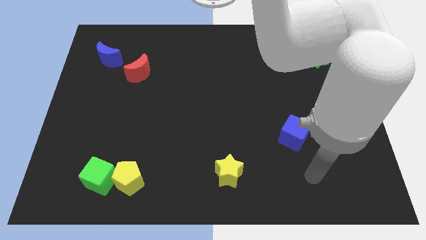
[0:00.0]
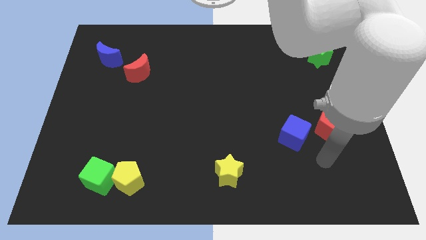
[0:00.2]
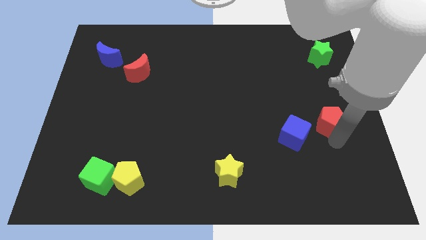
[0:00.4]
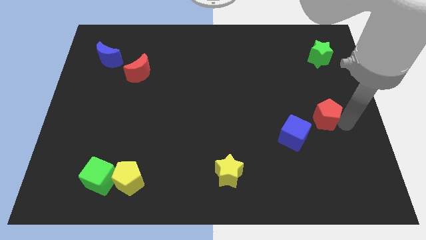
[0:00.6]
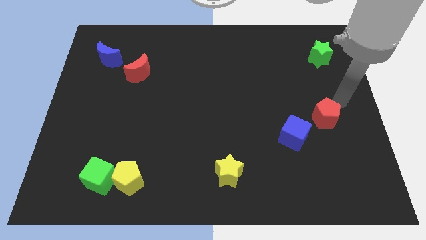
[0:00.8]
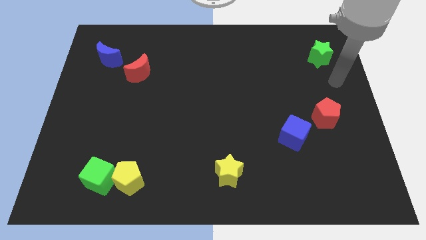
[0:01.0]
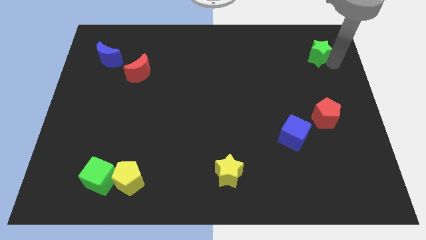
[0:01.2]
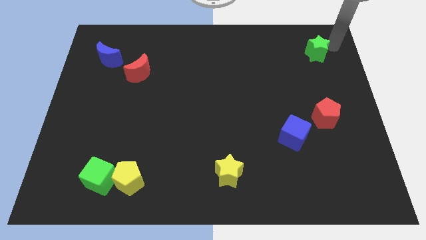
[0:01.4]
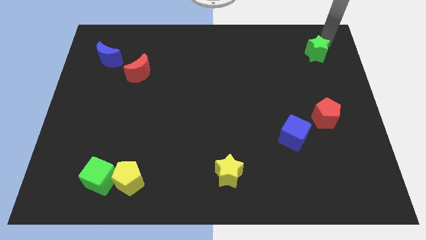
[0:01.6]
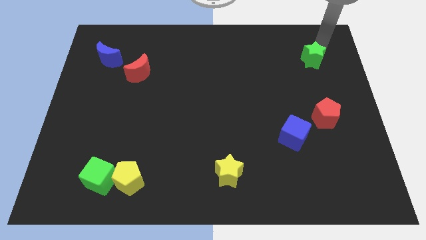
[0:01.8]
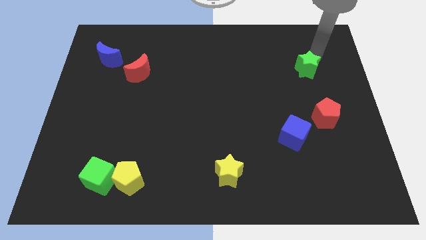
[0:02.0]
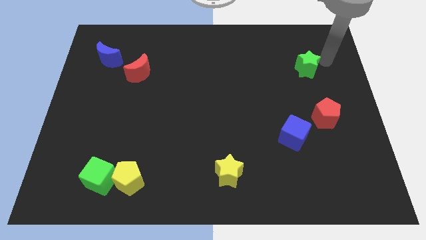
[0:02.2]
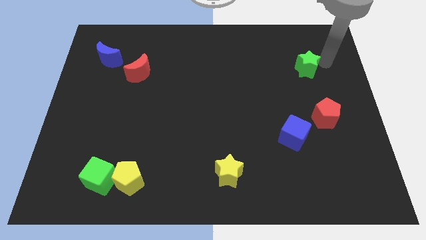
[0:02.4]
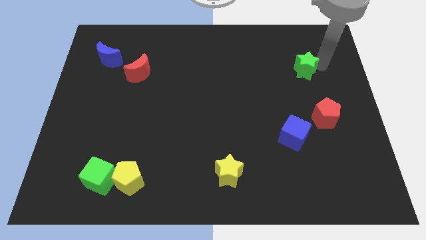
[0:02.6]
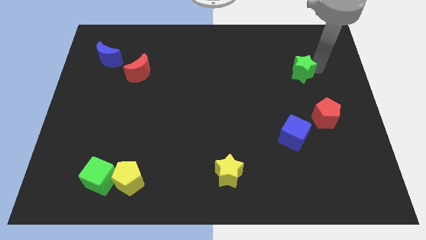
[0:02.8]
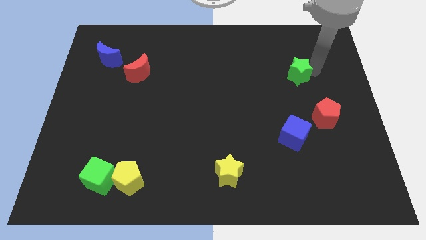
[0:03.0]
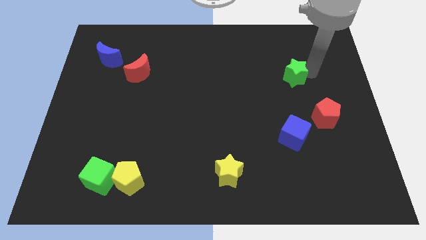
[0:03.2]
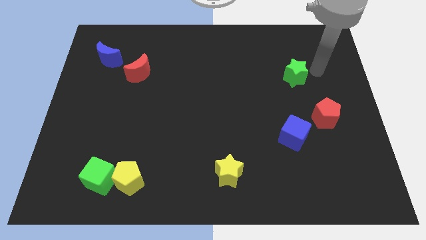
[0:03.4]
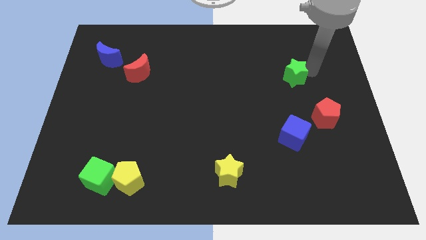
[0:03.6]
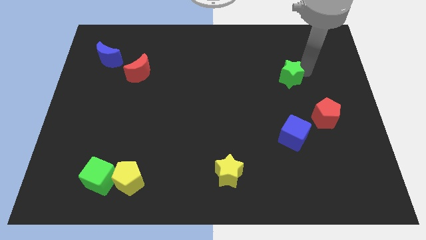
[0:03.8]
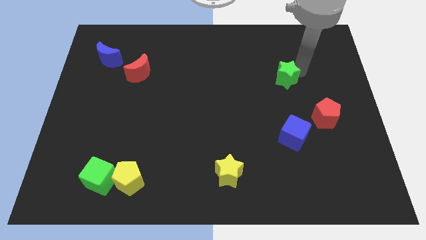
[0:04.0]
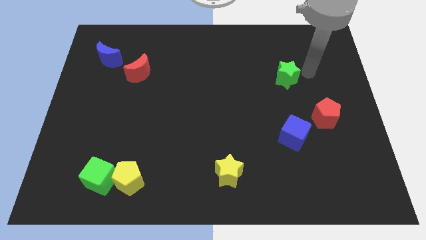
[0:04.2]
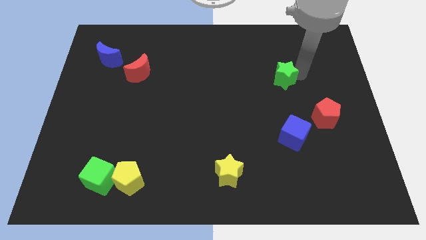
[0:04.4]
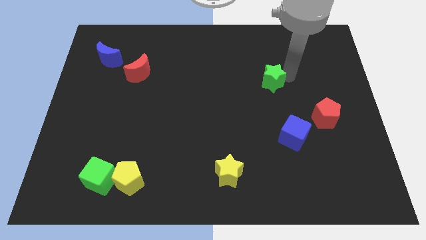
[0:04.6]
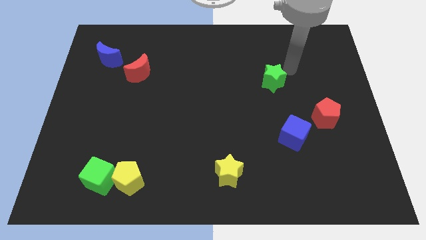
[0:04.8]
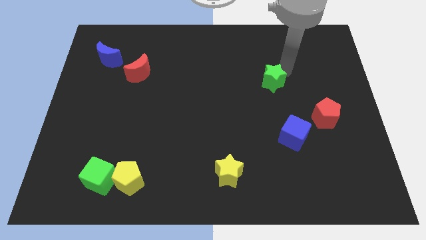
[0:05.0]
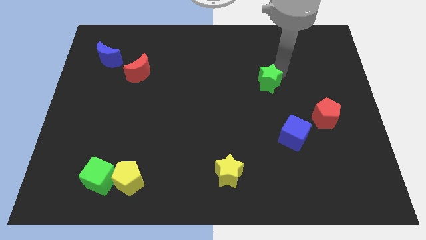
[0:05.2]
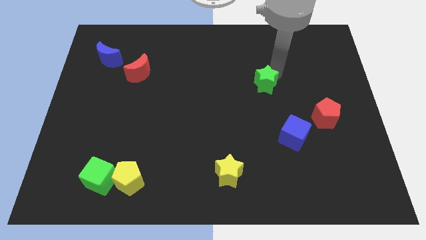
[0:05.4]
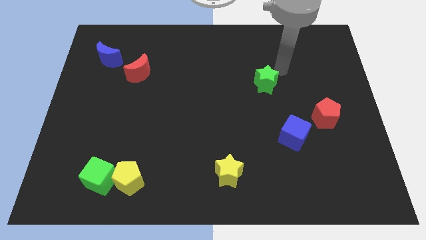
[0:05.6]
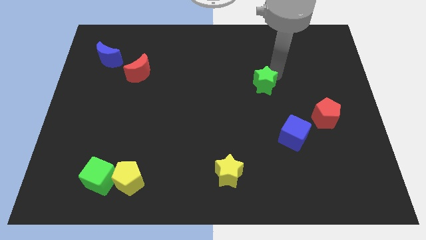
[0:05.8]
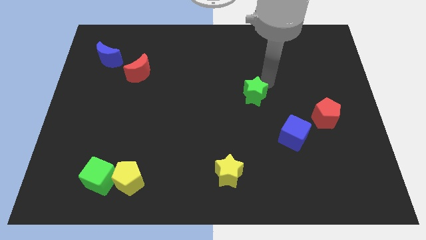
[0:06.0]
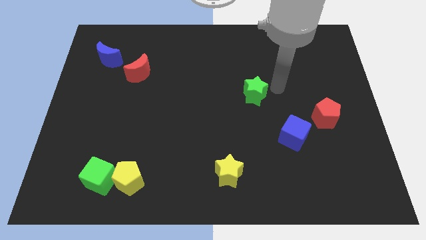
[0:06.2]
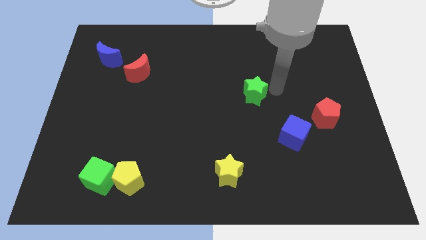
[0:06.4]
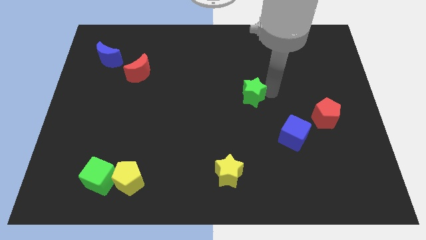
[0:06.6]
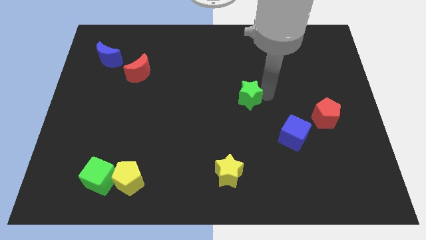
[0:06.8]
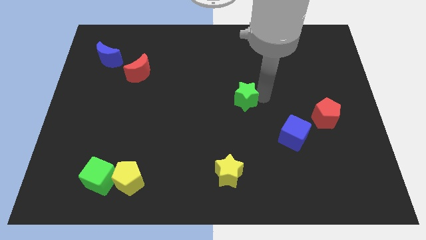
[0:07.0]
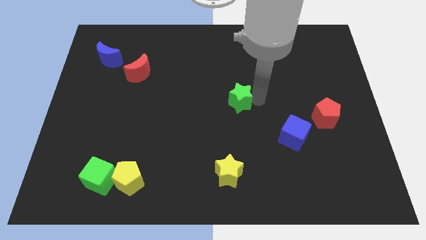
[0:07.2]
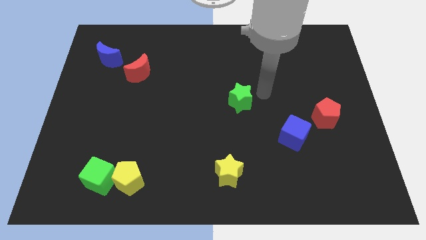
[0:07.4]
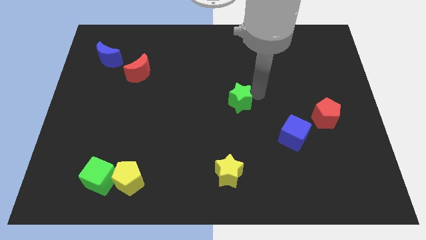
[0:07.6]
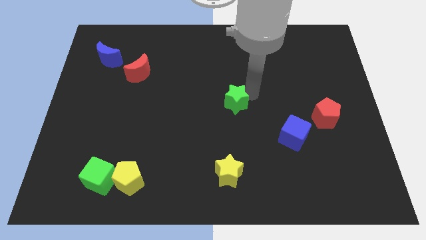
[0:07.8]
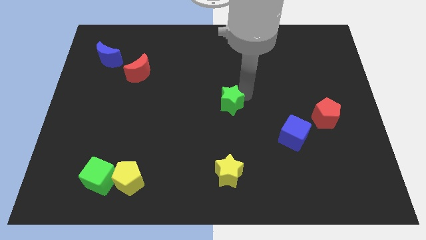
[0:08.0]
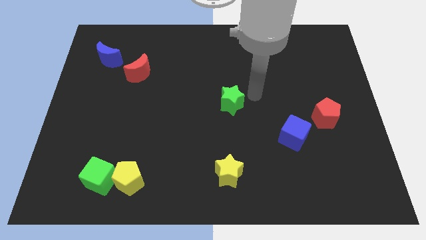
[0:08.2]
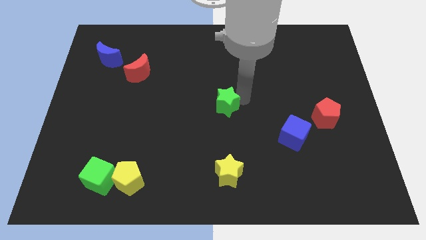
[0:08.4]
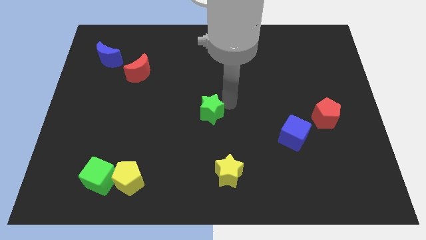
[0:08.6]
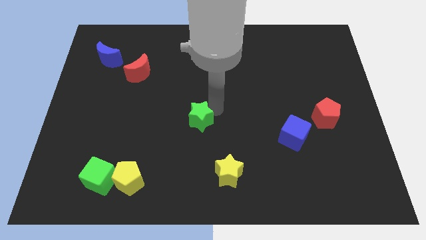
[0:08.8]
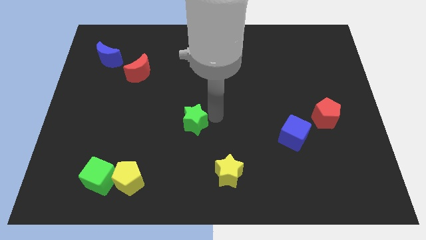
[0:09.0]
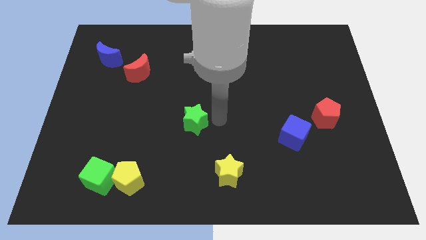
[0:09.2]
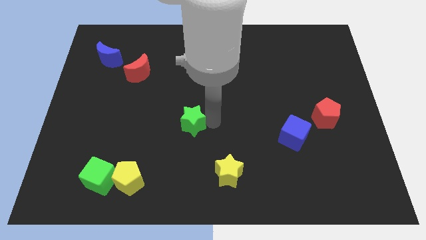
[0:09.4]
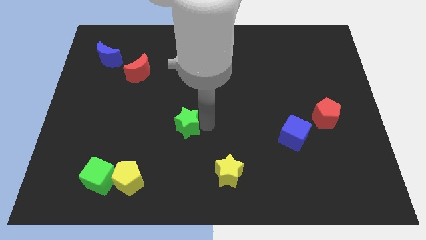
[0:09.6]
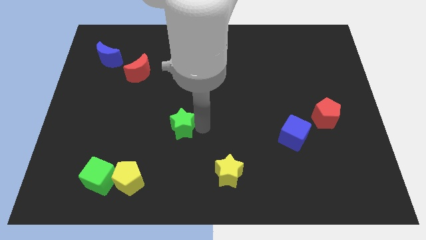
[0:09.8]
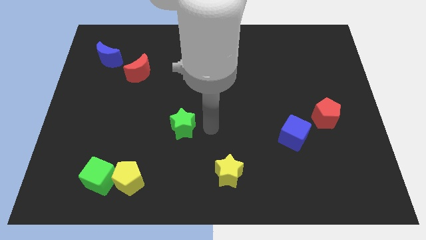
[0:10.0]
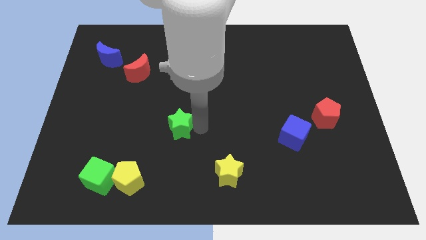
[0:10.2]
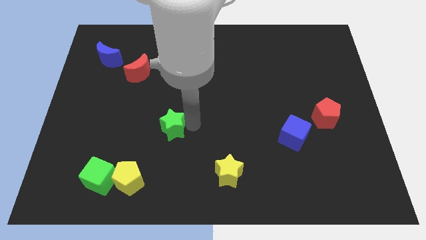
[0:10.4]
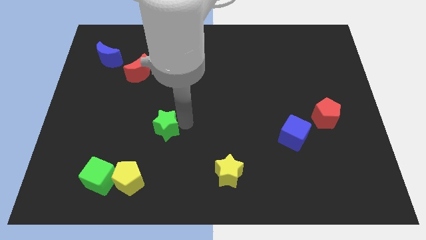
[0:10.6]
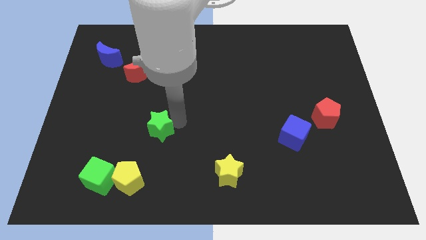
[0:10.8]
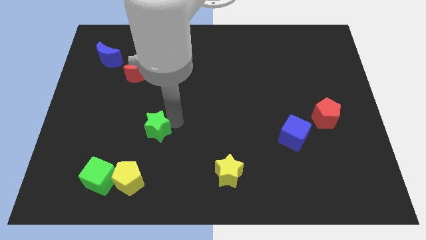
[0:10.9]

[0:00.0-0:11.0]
push the green star above the yellow pentagon

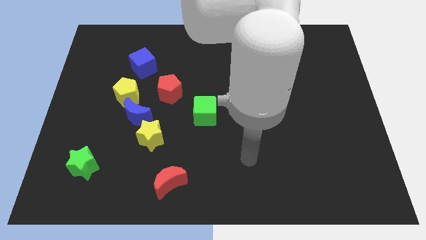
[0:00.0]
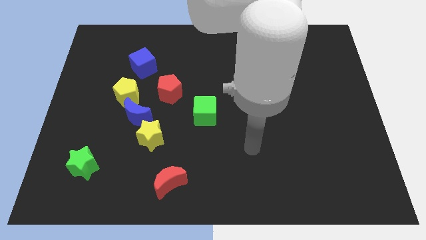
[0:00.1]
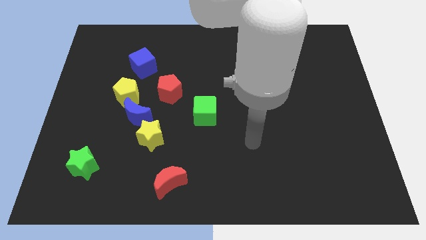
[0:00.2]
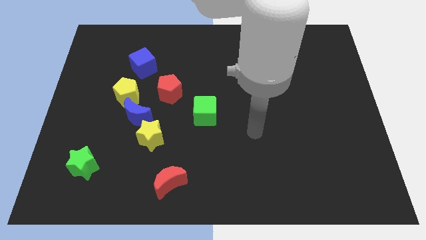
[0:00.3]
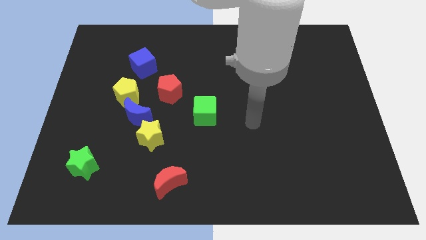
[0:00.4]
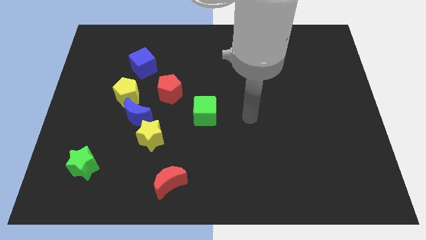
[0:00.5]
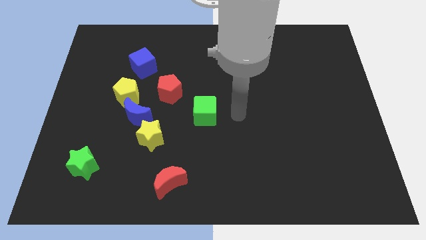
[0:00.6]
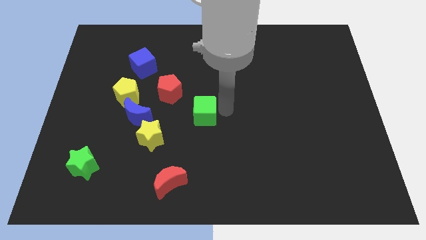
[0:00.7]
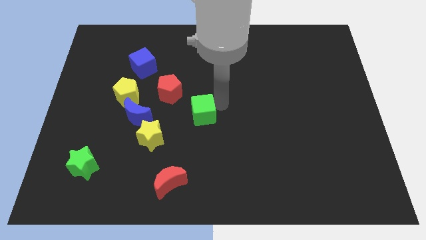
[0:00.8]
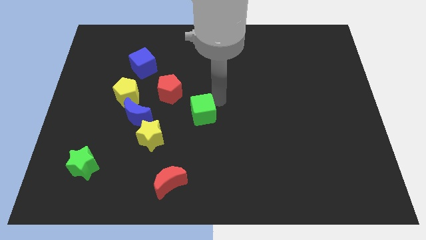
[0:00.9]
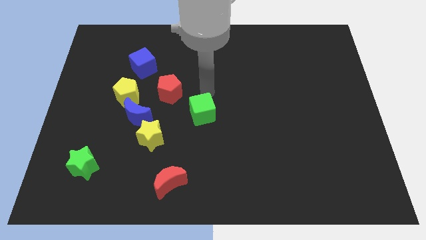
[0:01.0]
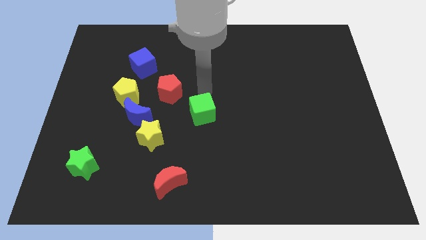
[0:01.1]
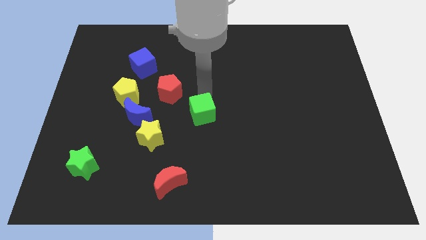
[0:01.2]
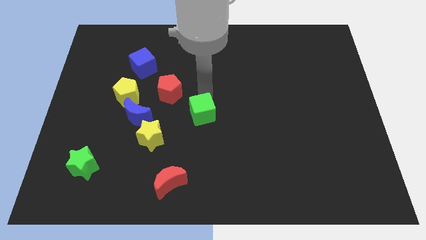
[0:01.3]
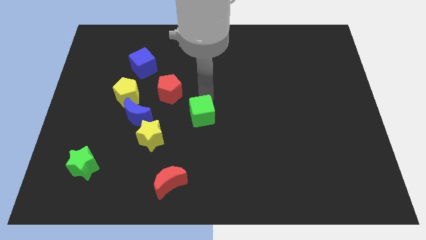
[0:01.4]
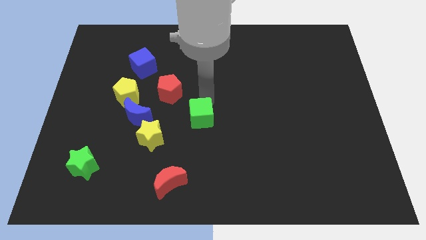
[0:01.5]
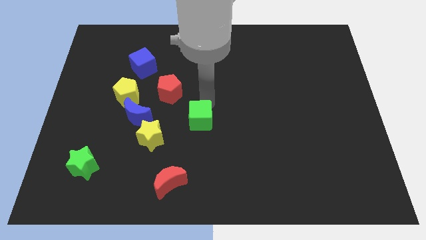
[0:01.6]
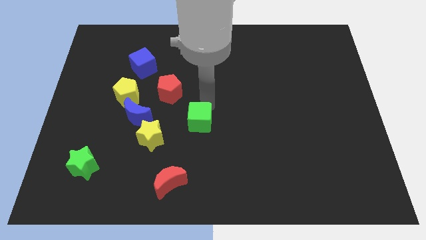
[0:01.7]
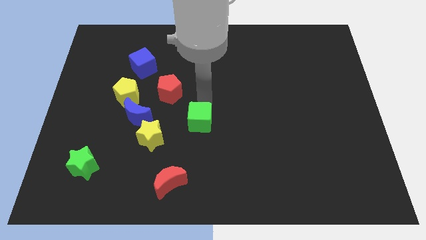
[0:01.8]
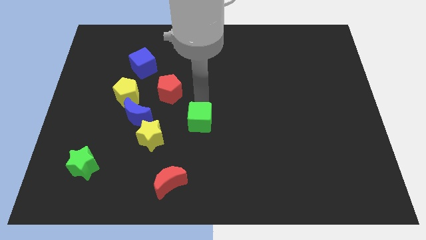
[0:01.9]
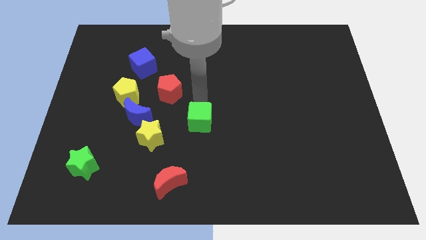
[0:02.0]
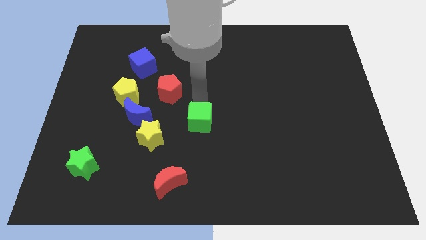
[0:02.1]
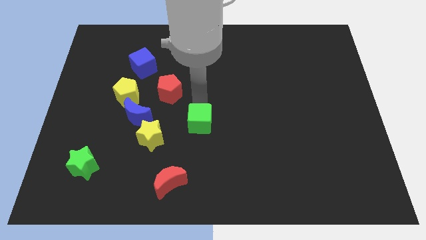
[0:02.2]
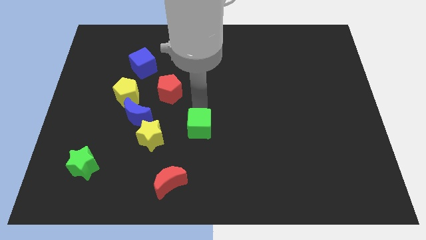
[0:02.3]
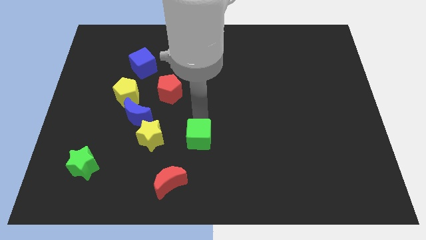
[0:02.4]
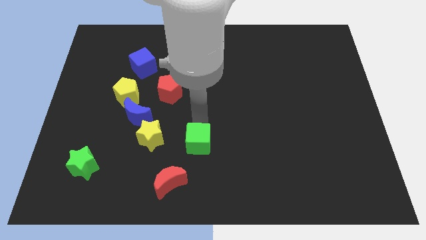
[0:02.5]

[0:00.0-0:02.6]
slide the green cube to the top right side of the red moon
